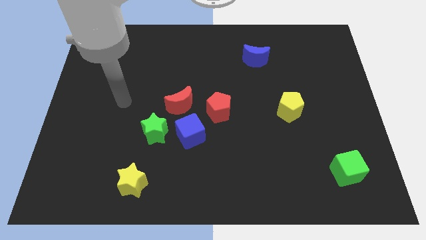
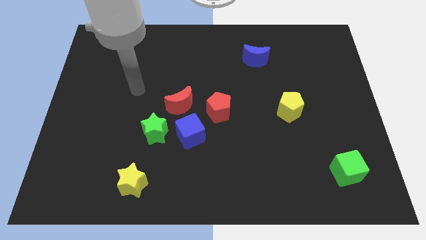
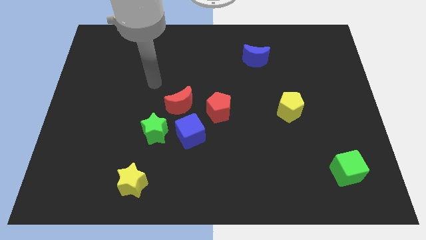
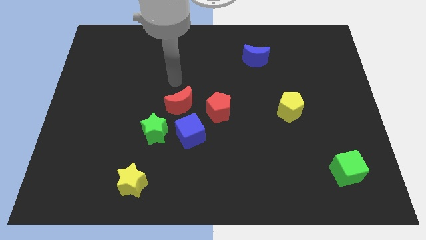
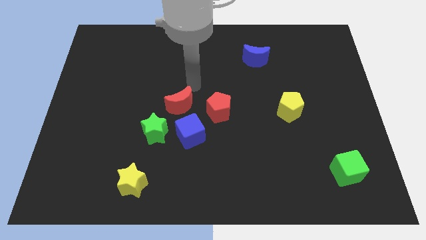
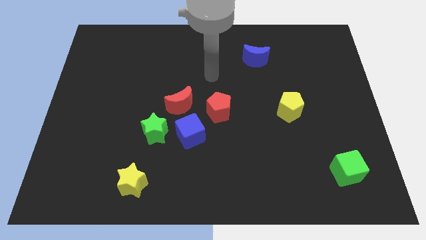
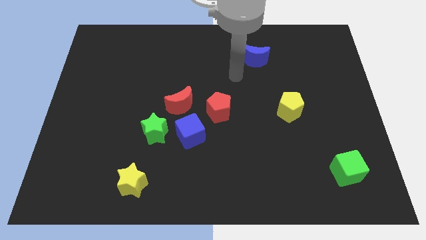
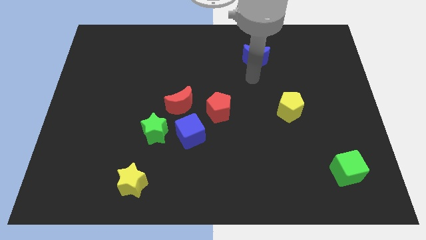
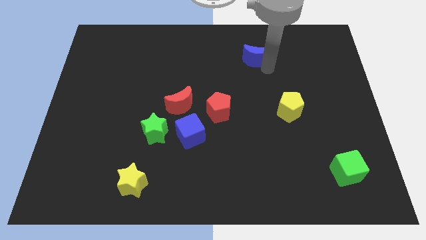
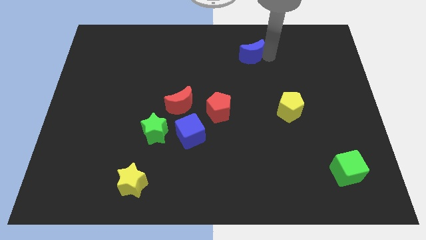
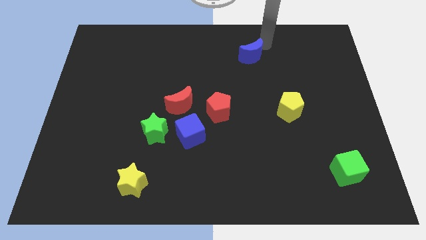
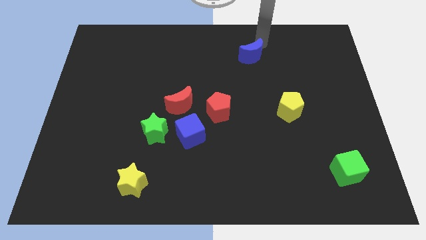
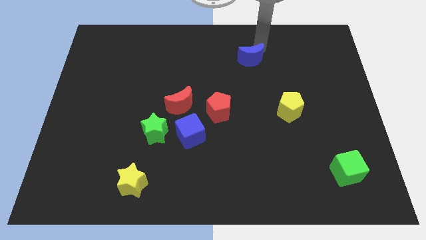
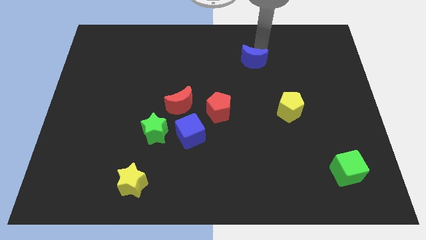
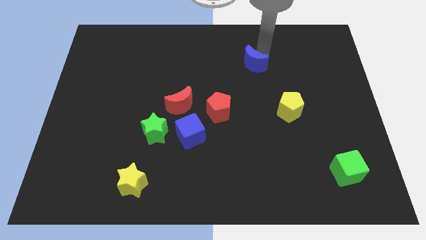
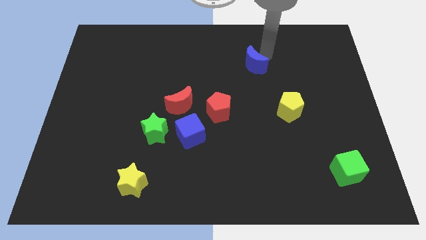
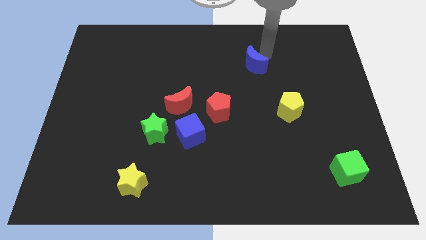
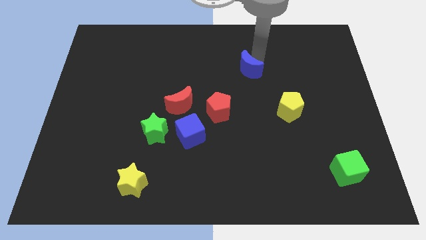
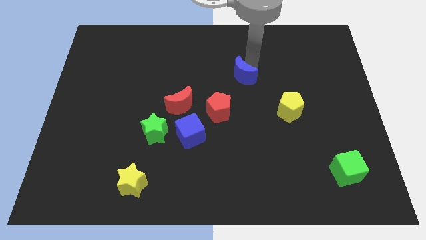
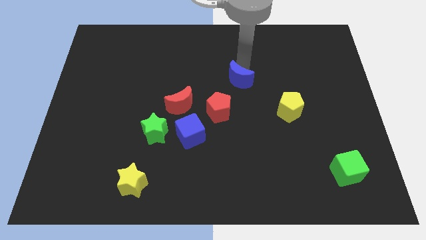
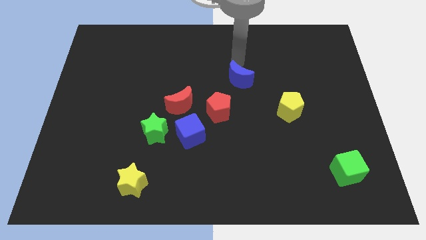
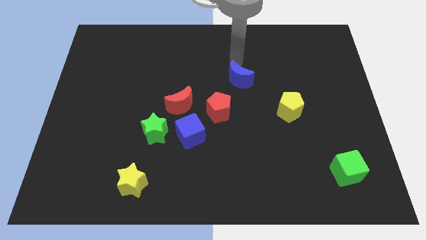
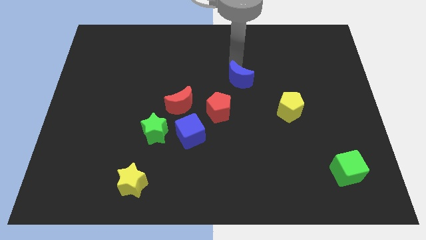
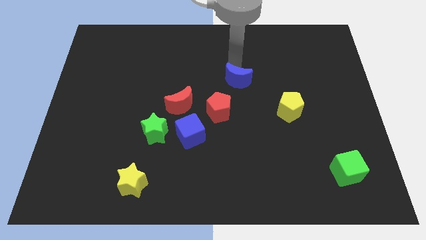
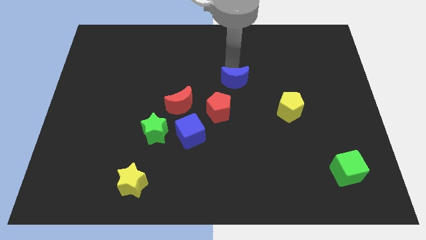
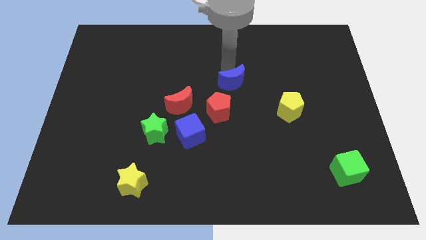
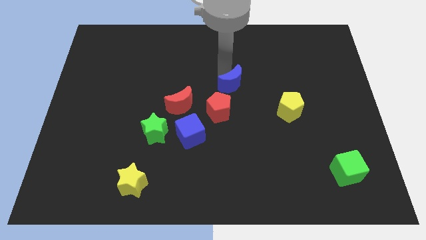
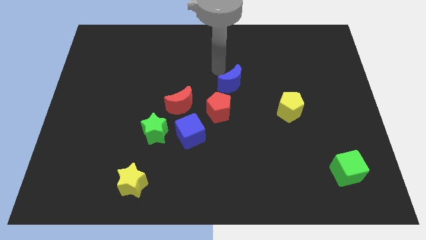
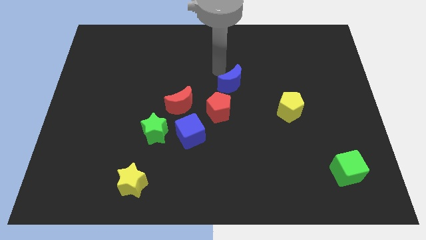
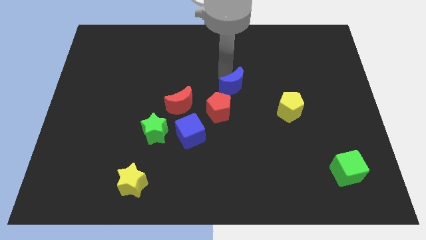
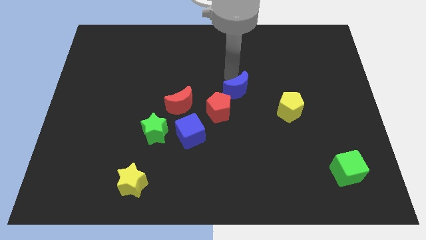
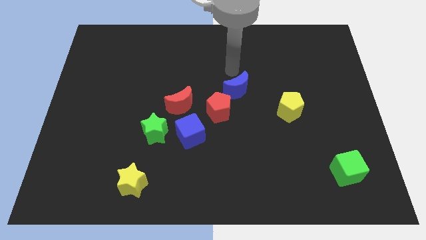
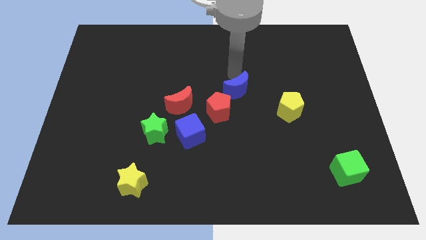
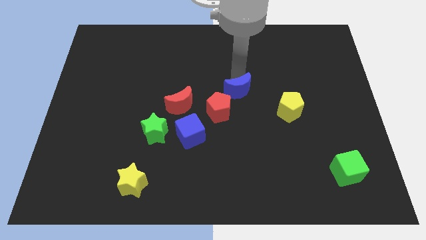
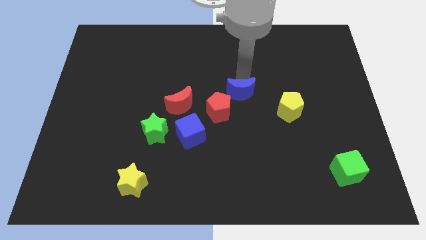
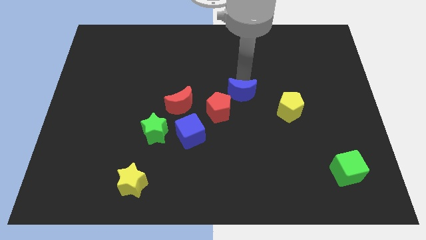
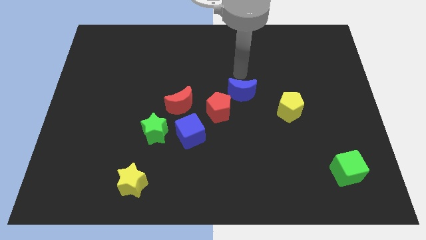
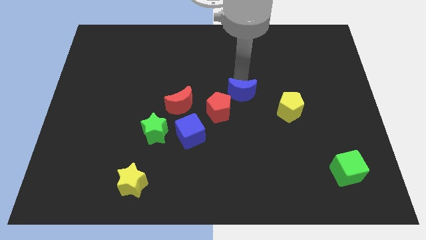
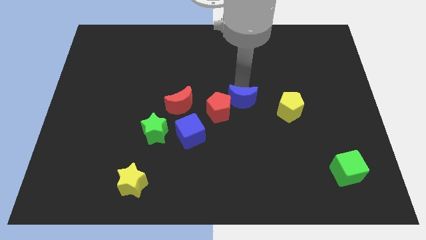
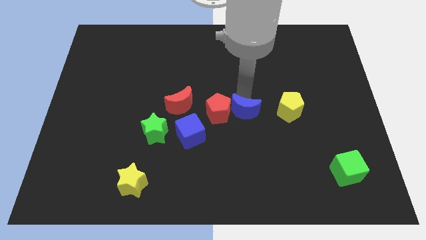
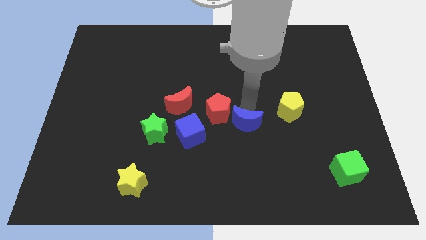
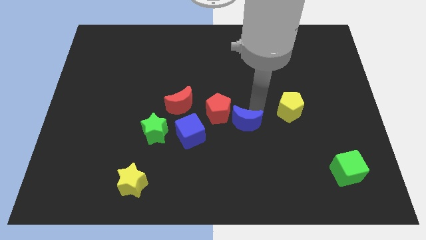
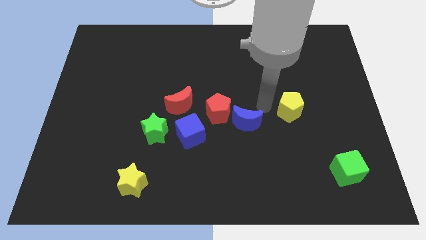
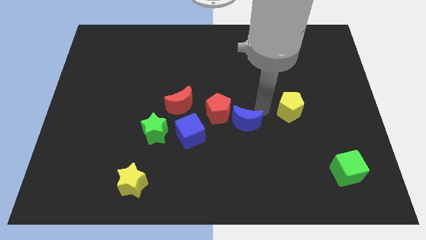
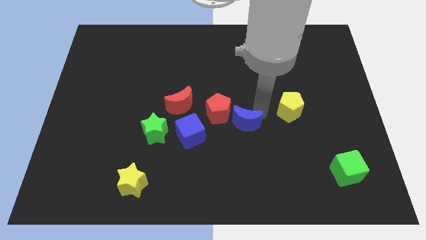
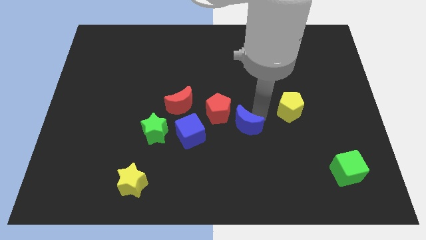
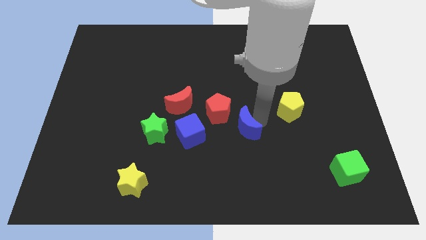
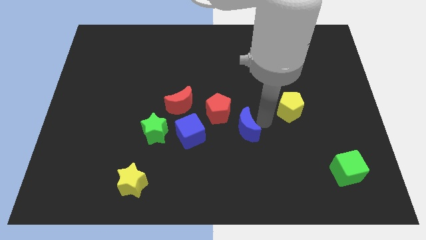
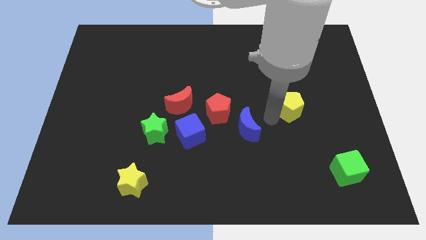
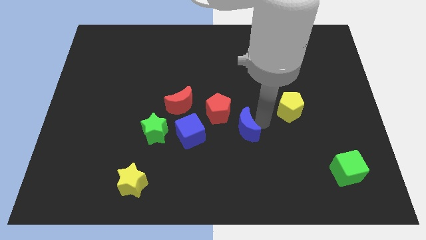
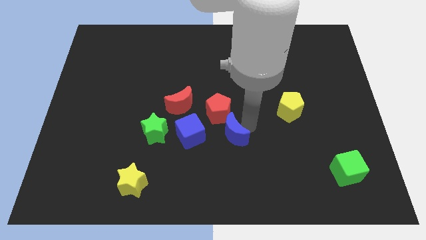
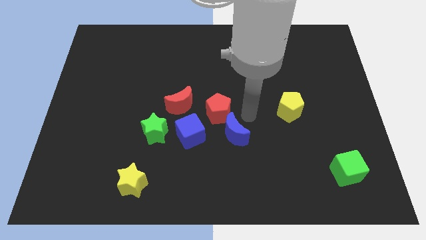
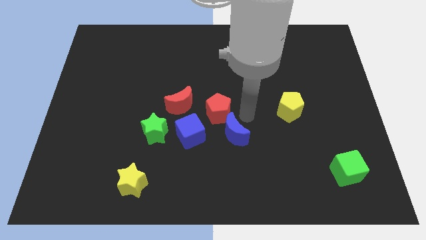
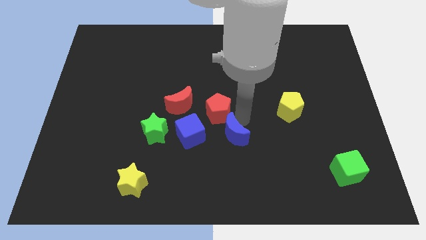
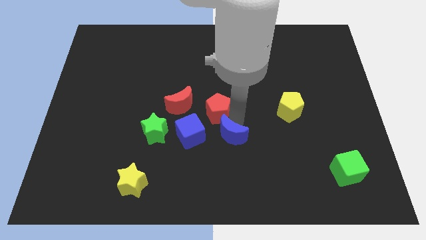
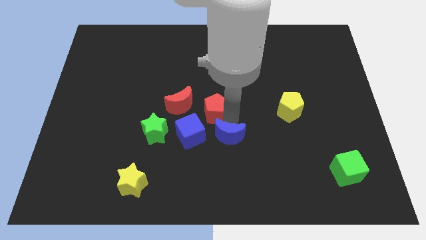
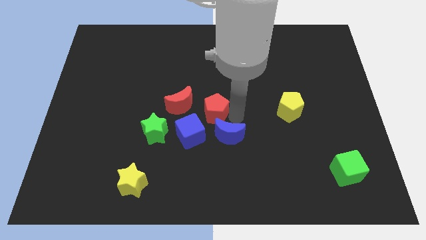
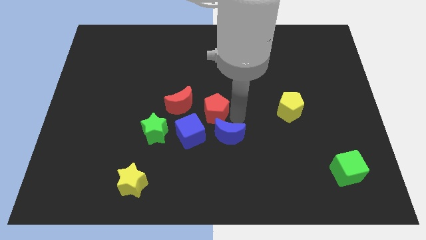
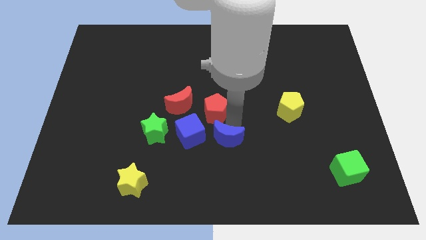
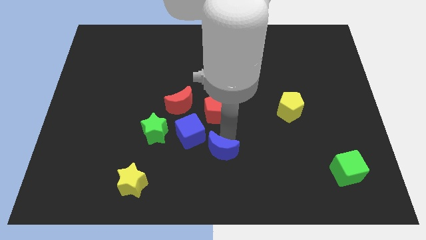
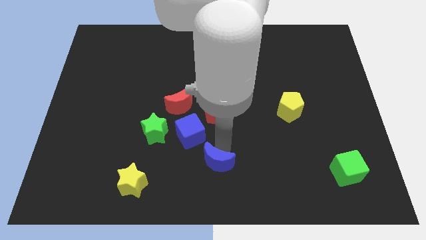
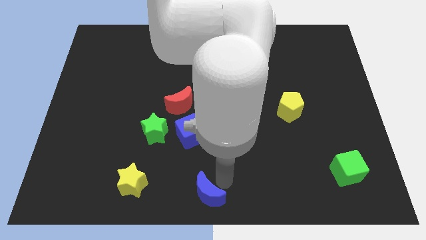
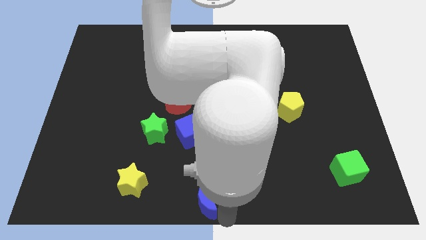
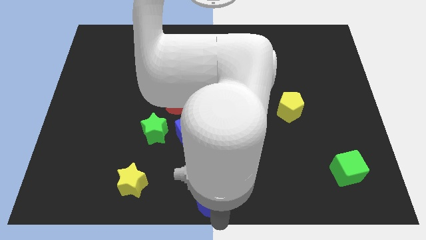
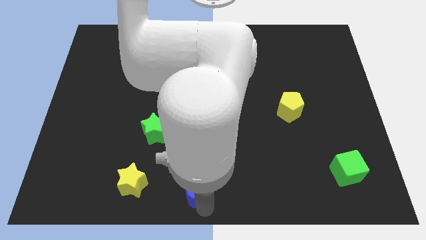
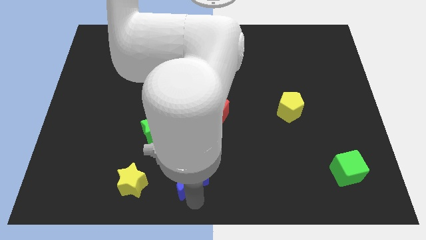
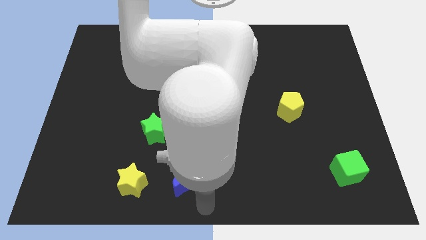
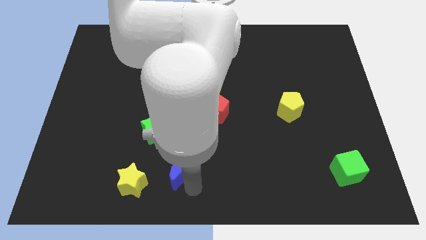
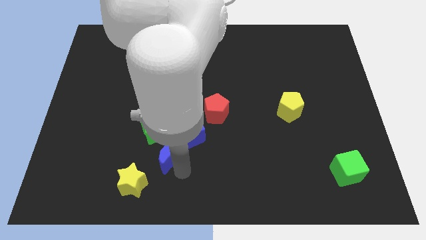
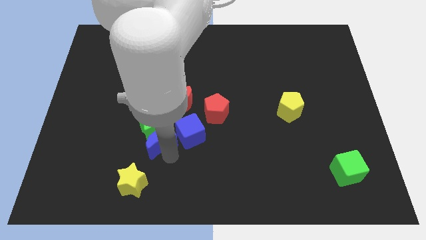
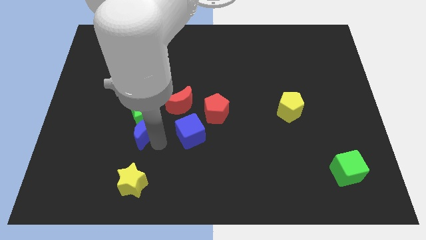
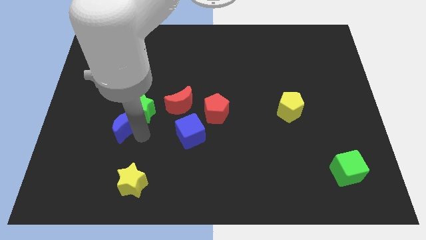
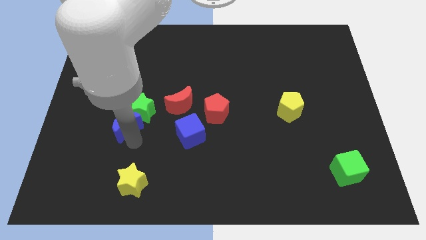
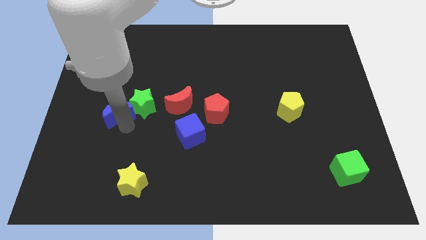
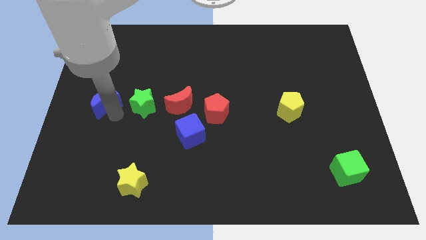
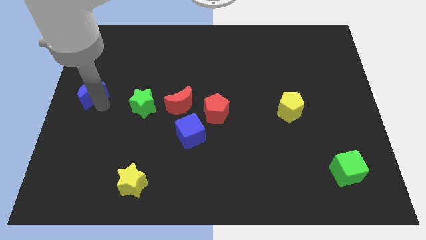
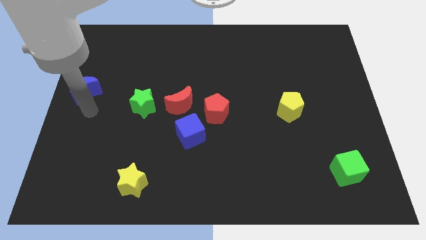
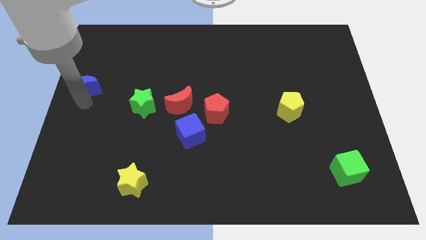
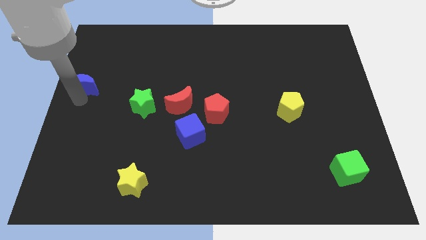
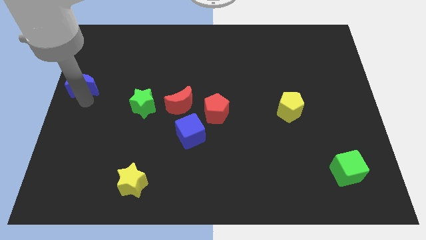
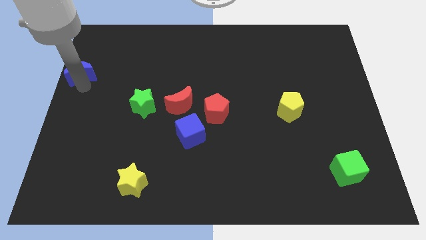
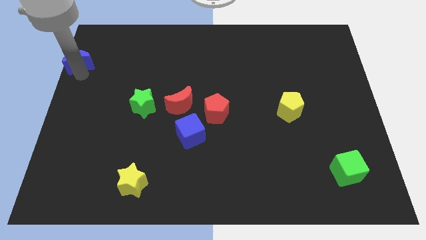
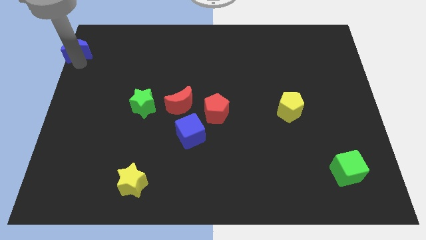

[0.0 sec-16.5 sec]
slide the blue moon to the upper left corner
